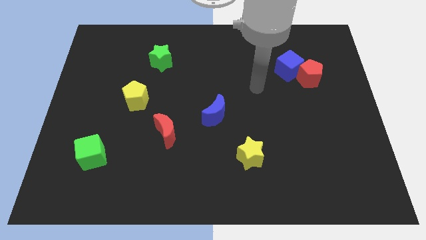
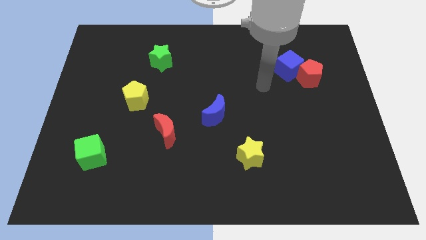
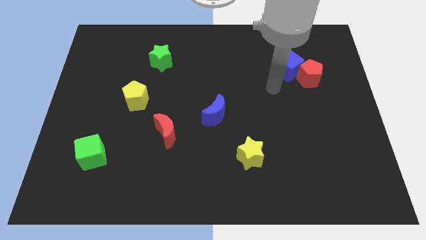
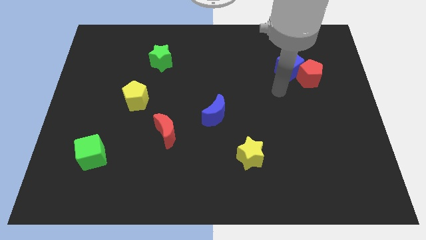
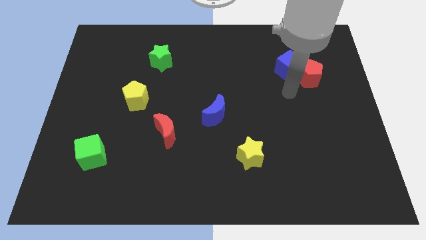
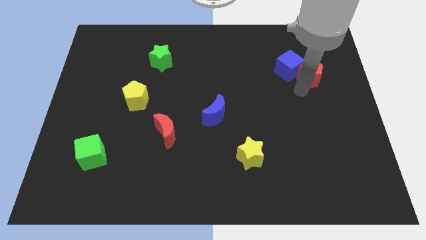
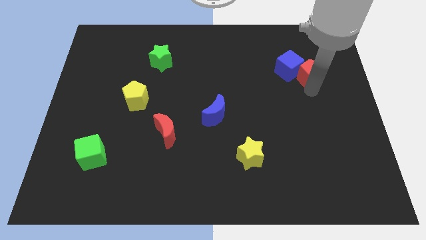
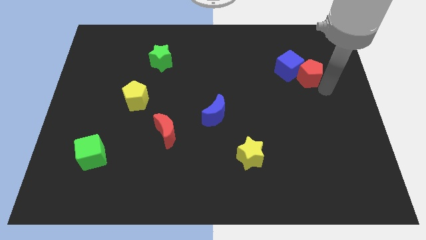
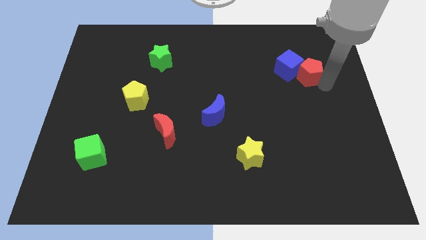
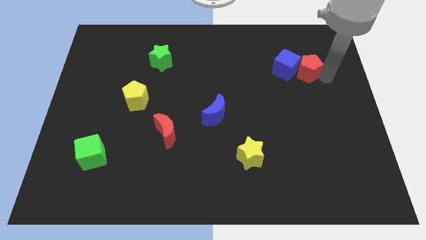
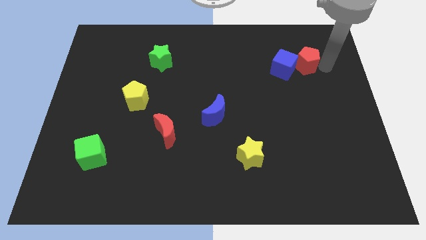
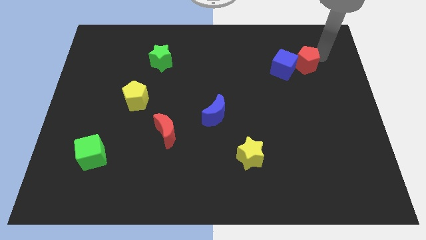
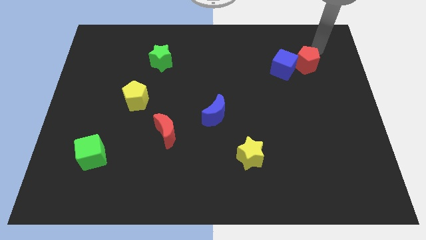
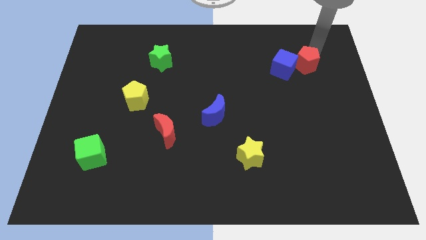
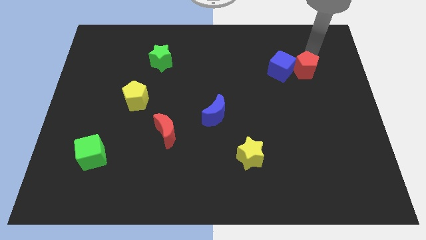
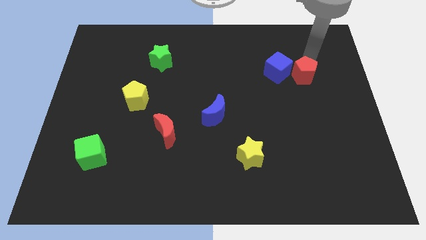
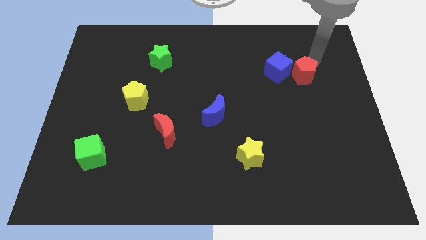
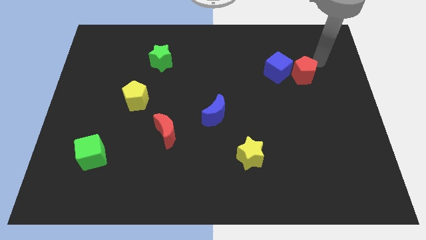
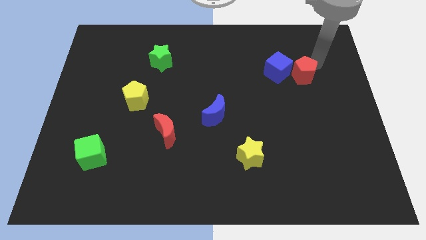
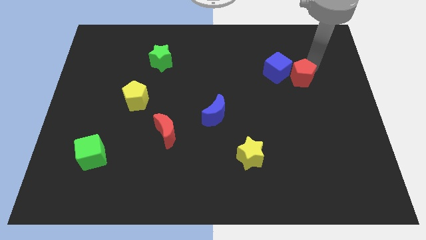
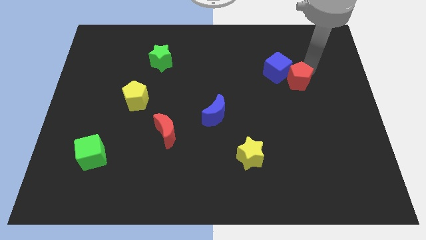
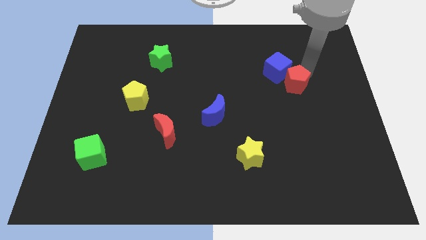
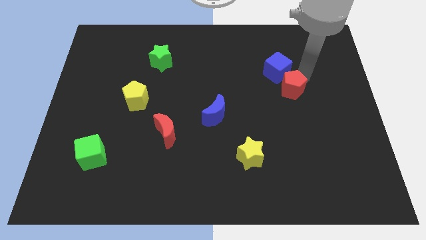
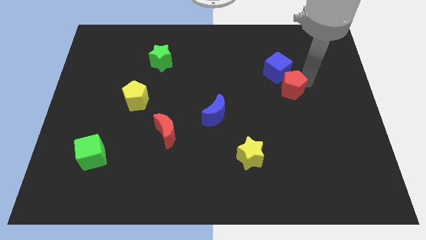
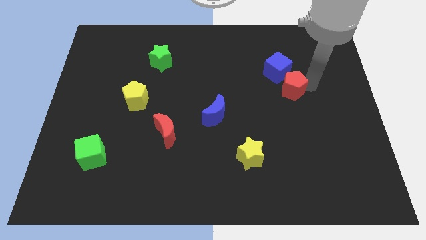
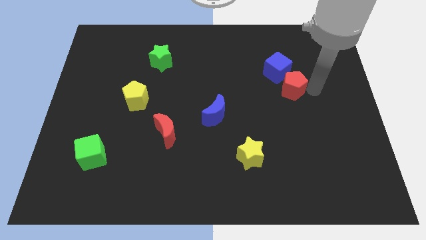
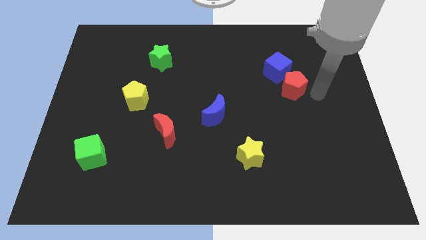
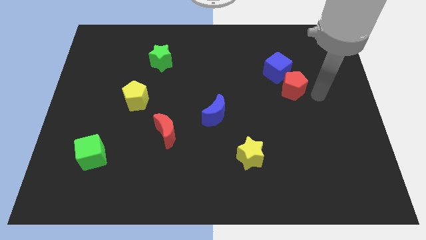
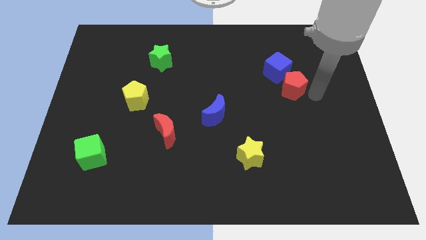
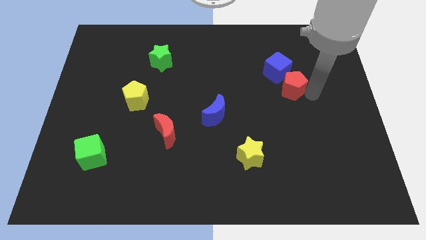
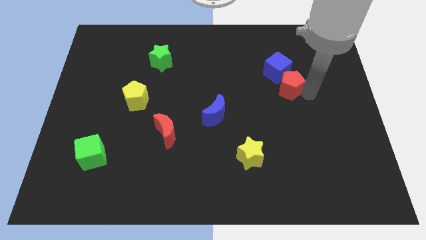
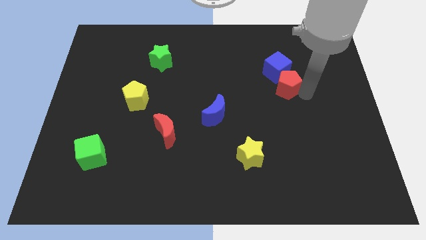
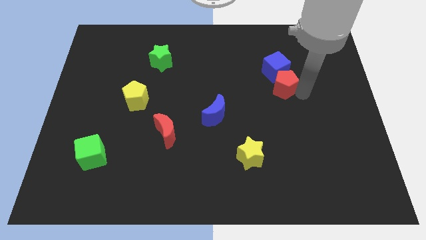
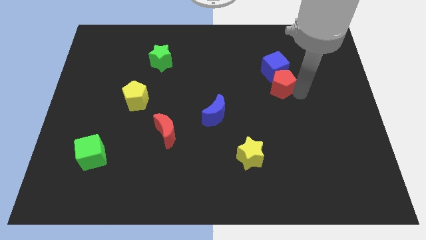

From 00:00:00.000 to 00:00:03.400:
slightly move the red pentagon to the left

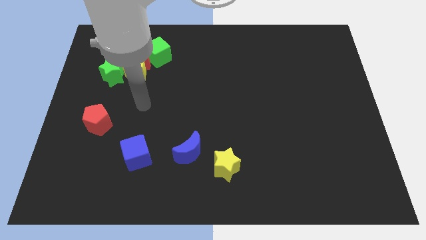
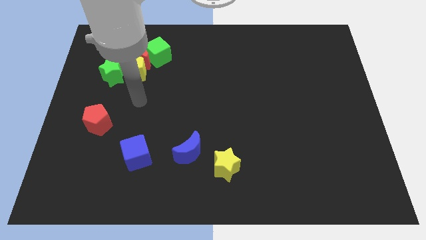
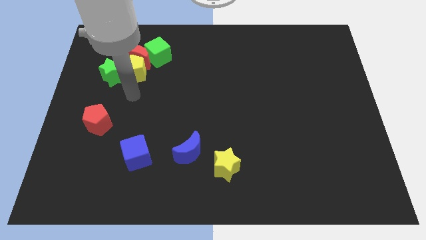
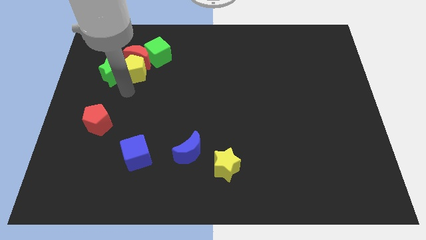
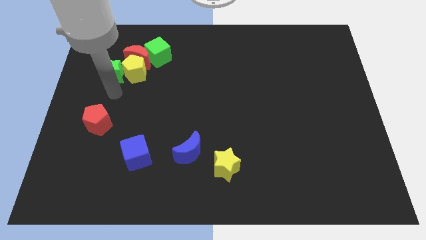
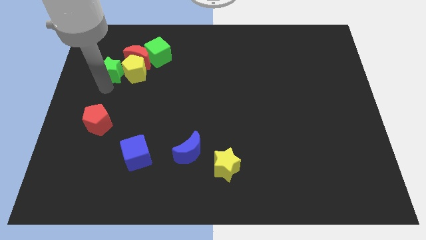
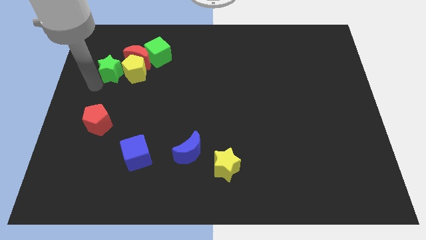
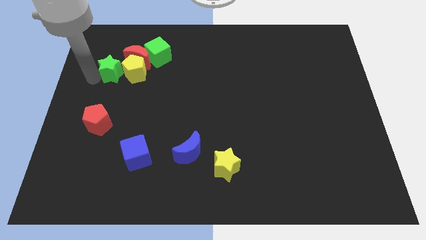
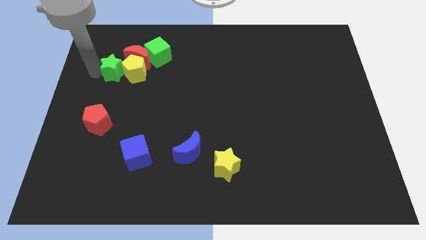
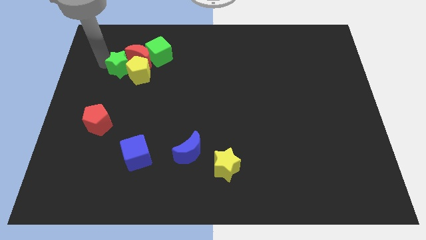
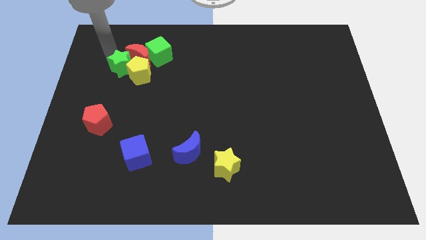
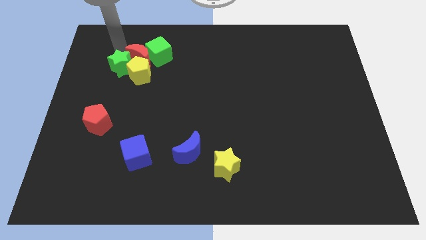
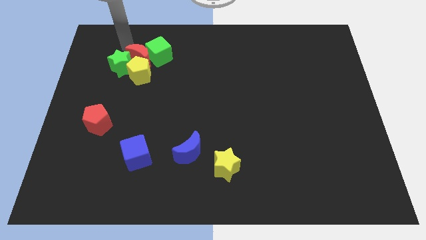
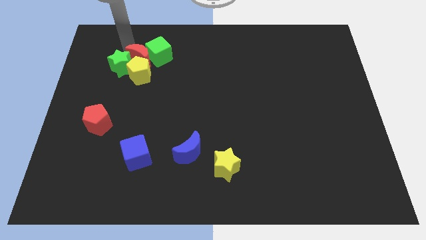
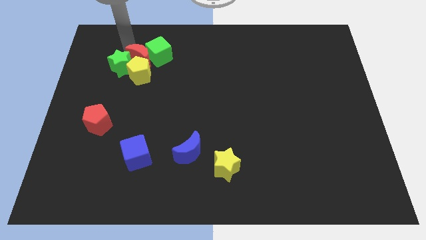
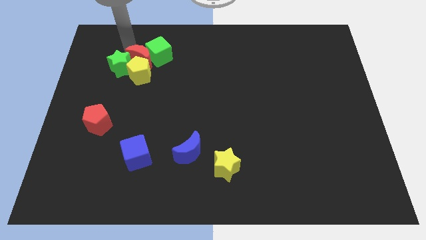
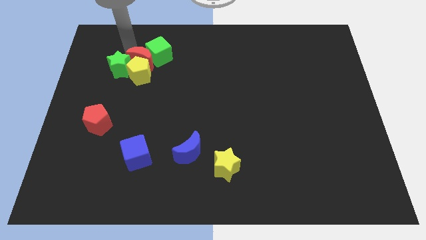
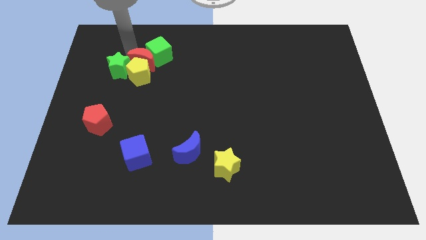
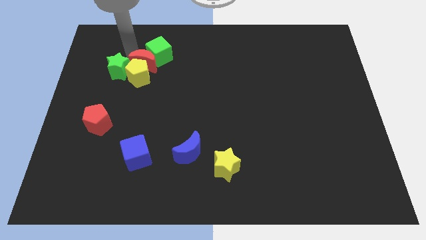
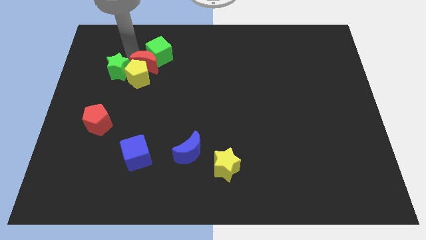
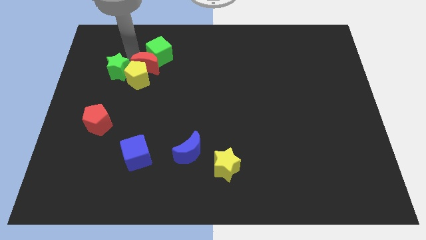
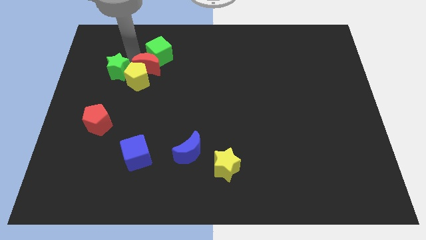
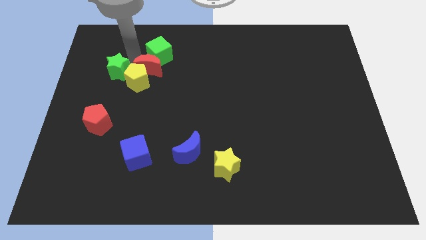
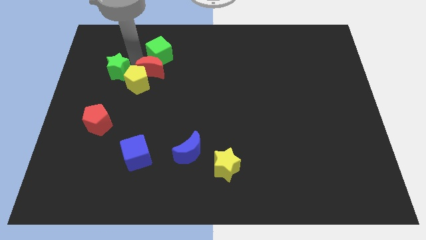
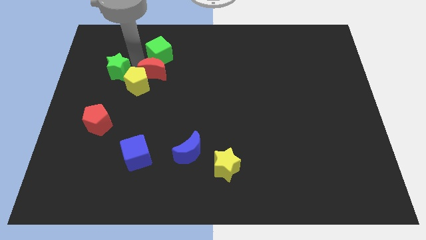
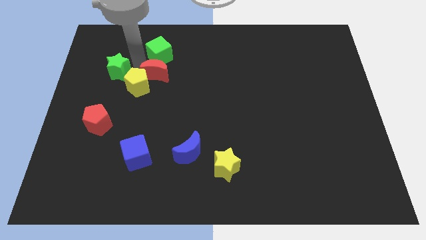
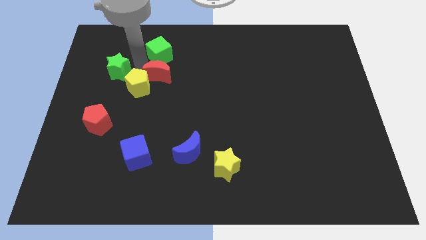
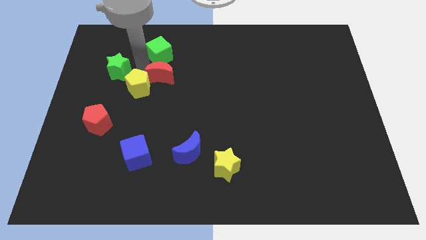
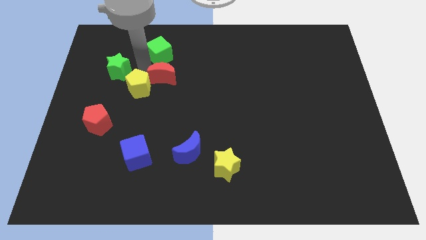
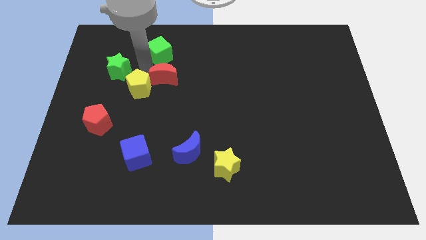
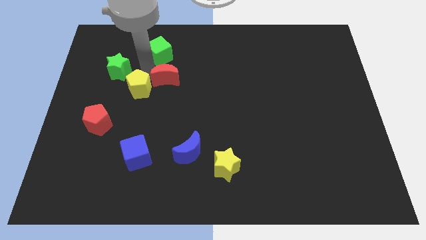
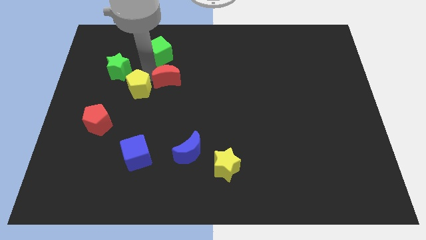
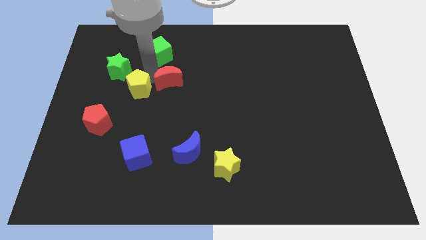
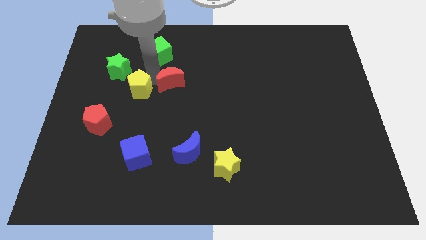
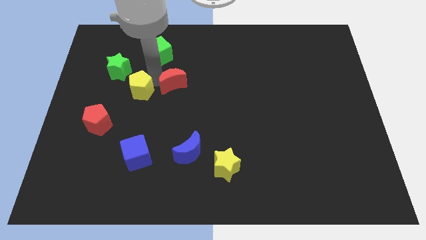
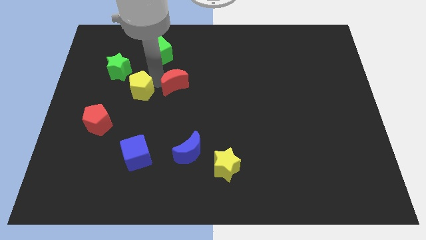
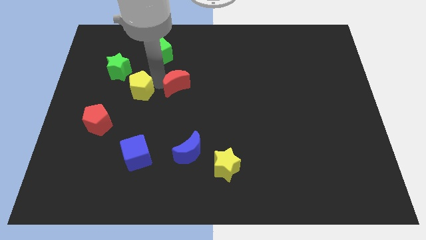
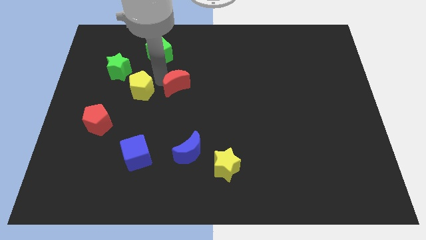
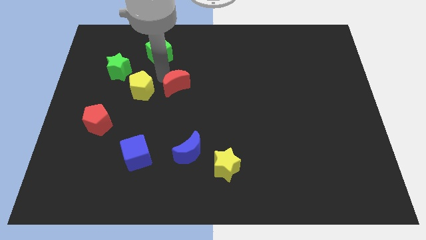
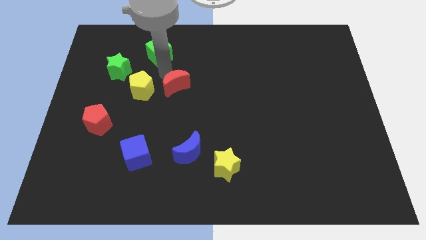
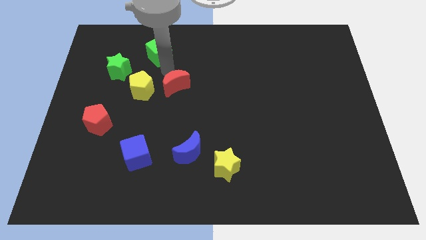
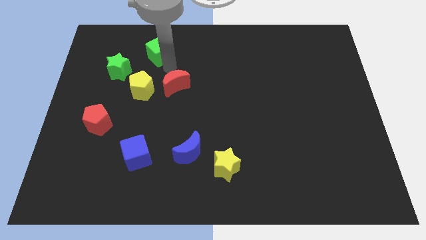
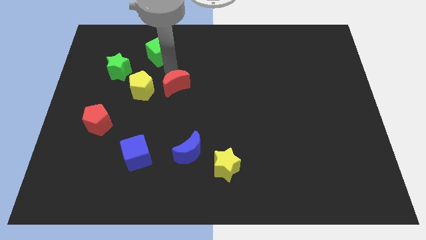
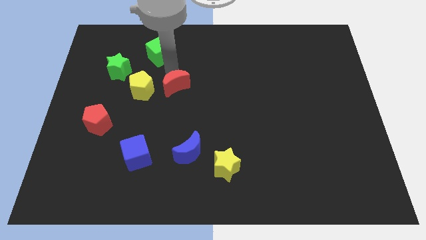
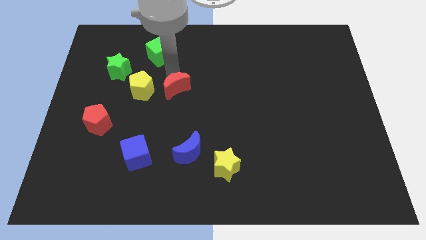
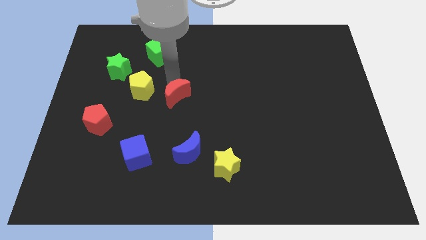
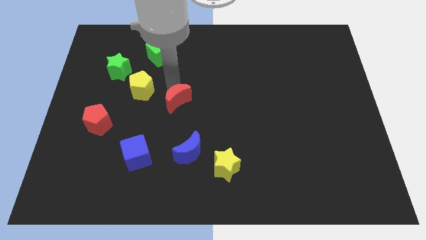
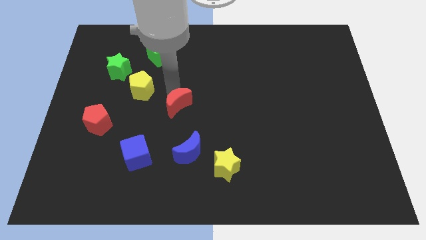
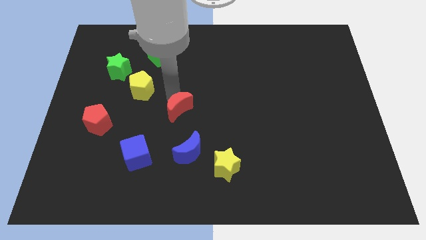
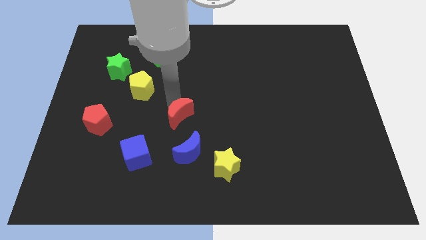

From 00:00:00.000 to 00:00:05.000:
move the red moon down and right
